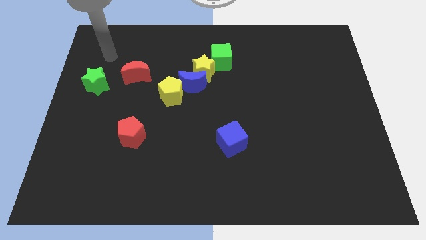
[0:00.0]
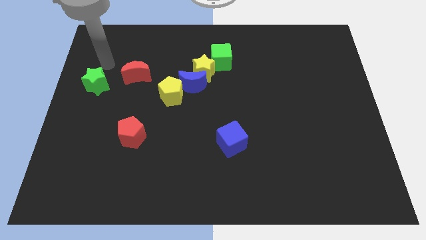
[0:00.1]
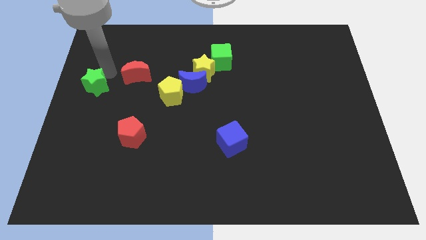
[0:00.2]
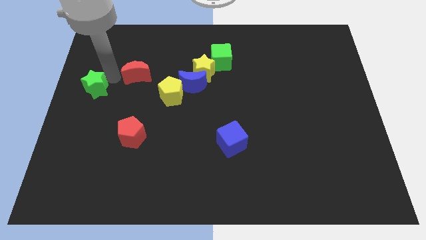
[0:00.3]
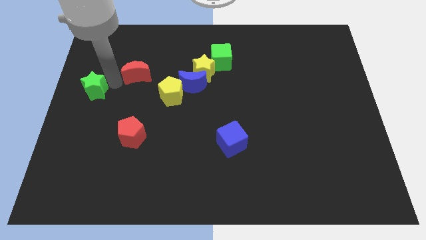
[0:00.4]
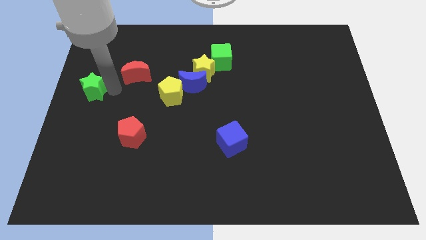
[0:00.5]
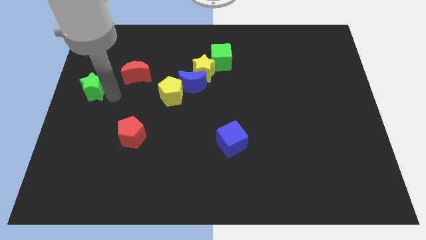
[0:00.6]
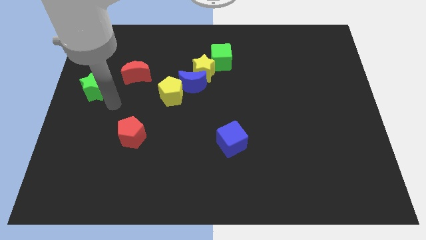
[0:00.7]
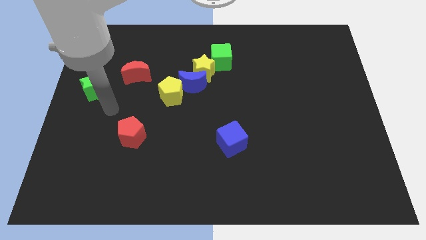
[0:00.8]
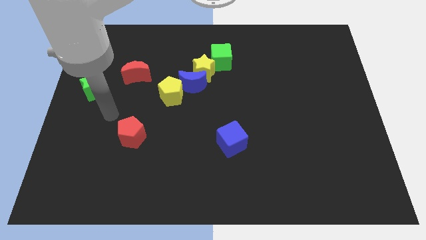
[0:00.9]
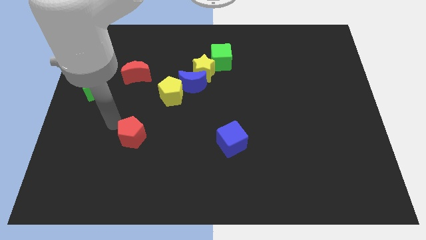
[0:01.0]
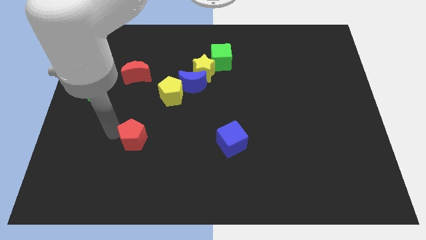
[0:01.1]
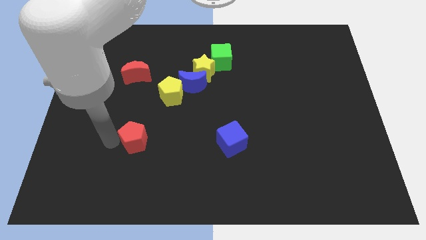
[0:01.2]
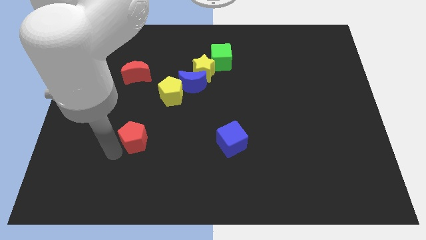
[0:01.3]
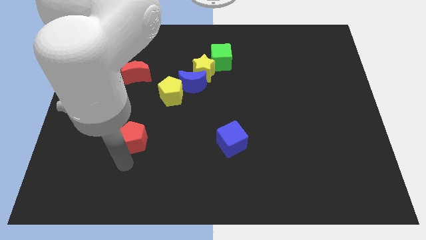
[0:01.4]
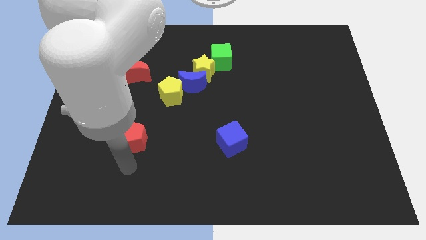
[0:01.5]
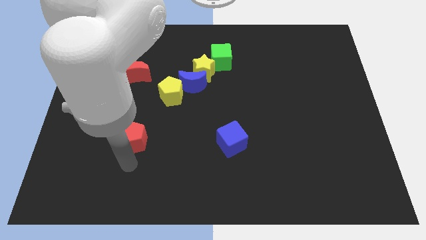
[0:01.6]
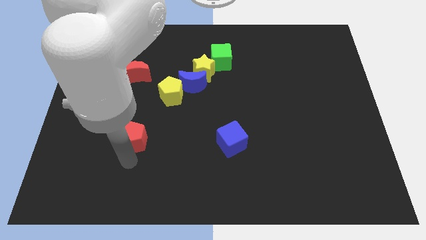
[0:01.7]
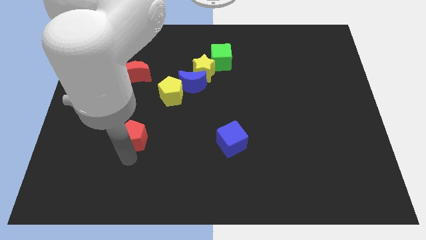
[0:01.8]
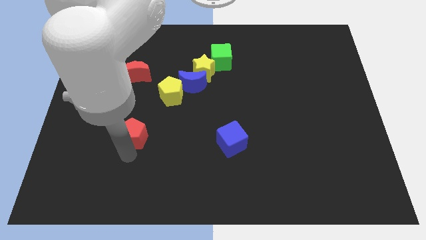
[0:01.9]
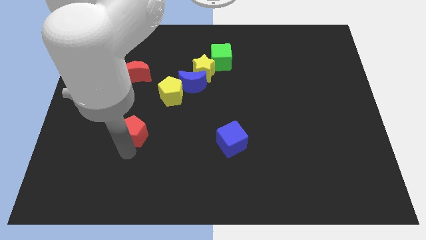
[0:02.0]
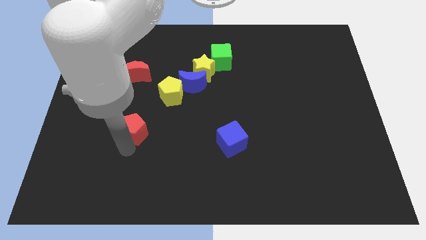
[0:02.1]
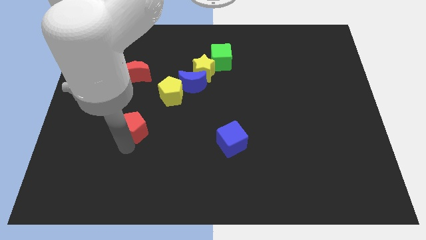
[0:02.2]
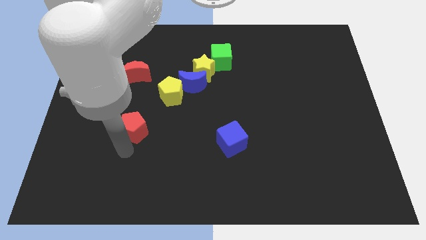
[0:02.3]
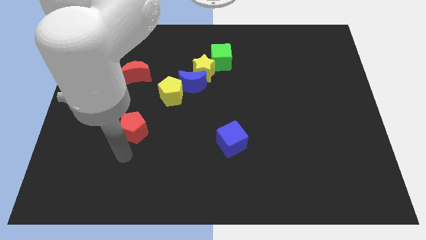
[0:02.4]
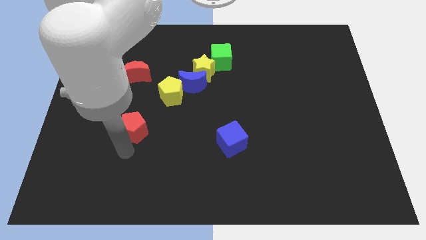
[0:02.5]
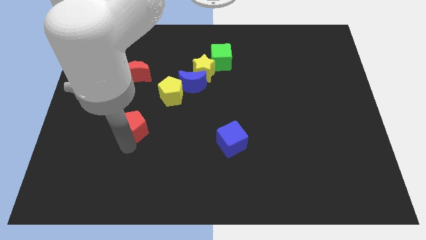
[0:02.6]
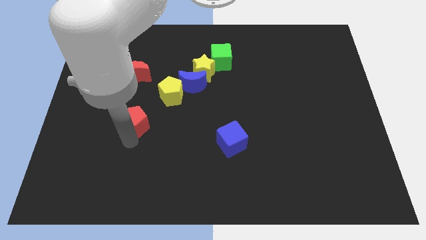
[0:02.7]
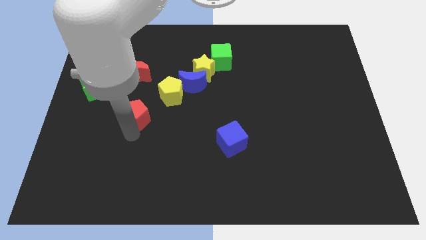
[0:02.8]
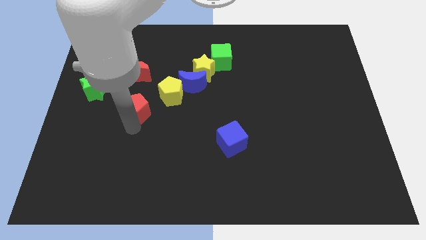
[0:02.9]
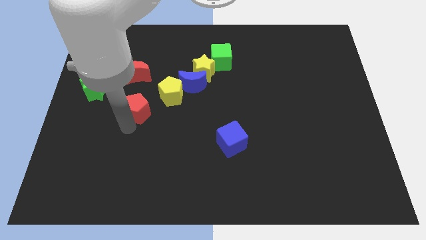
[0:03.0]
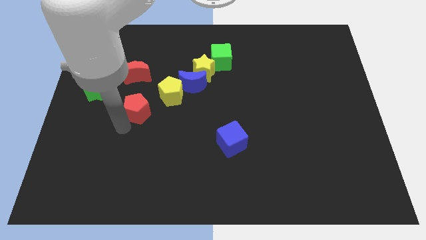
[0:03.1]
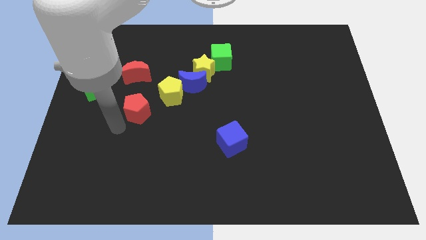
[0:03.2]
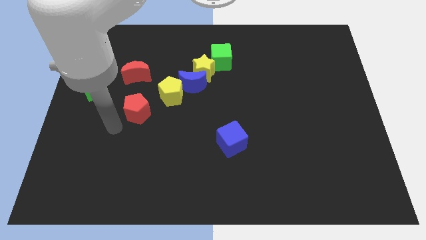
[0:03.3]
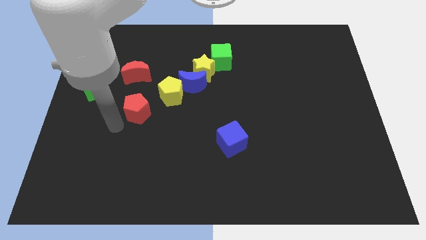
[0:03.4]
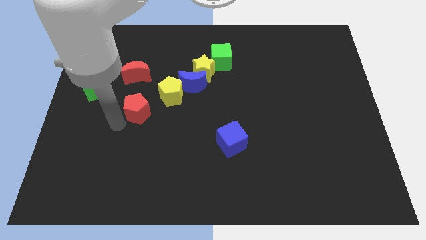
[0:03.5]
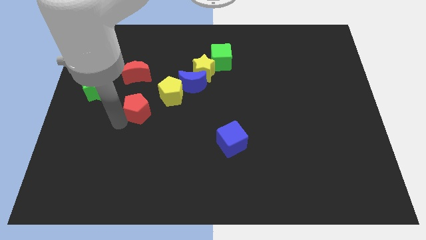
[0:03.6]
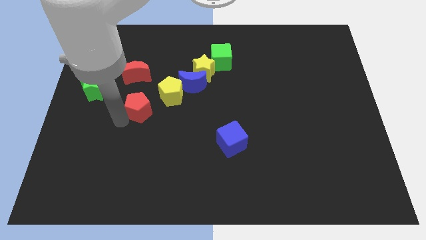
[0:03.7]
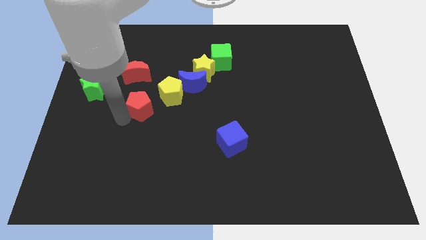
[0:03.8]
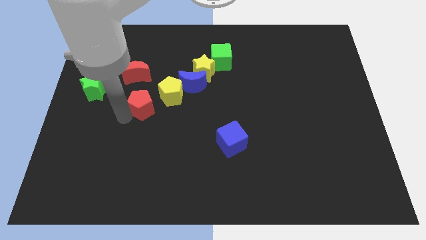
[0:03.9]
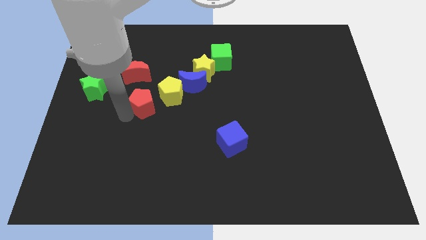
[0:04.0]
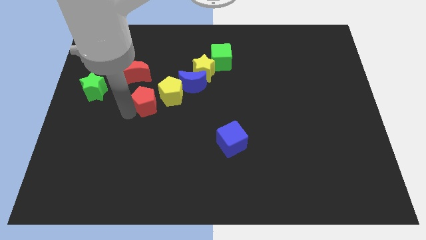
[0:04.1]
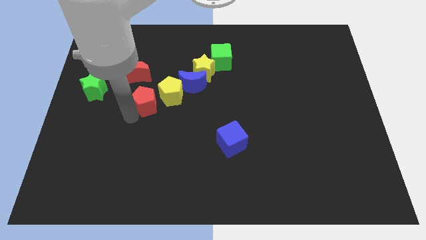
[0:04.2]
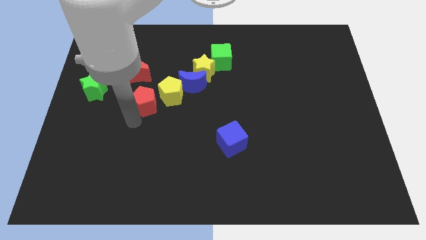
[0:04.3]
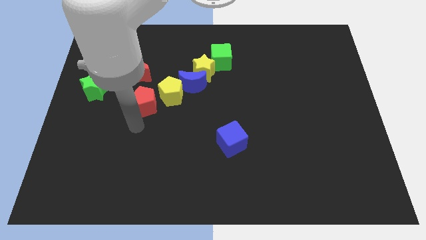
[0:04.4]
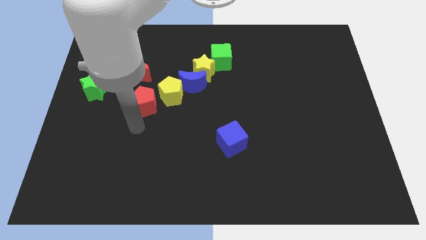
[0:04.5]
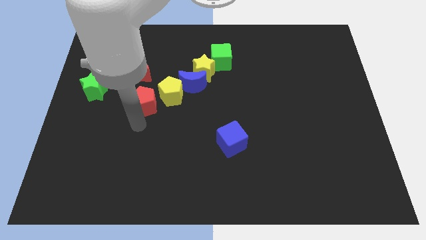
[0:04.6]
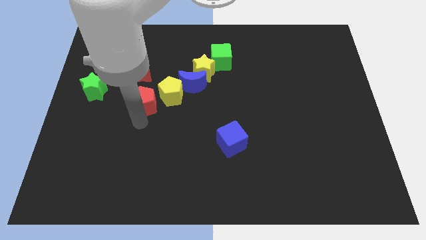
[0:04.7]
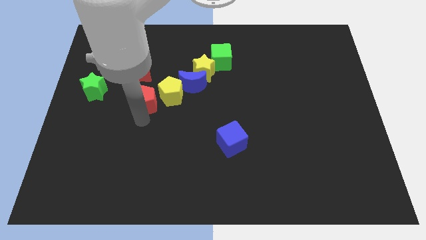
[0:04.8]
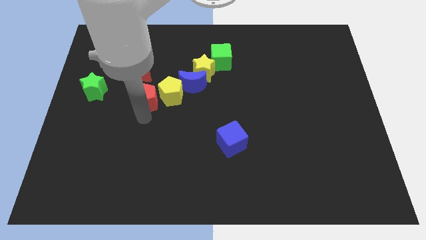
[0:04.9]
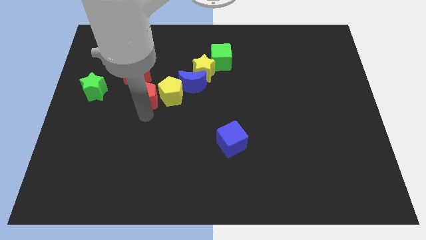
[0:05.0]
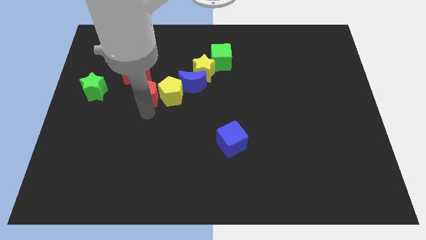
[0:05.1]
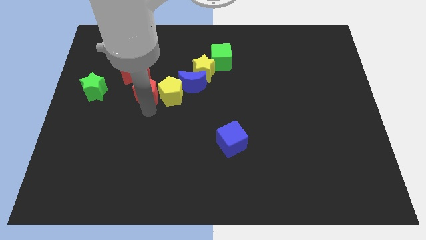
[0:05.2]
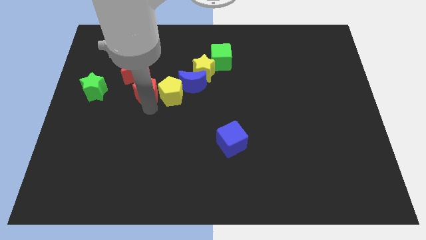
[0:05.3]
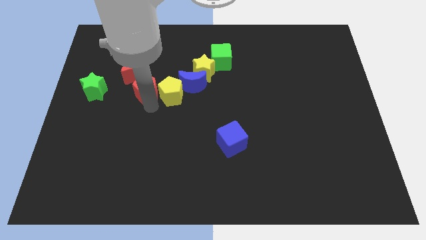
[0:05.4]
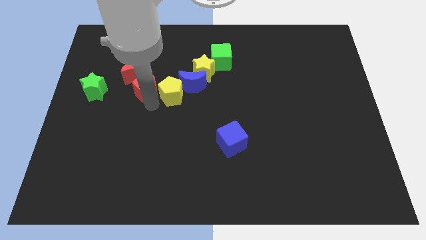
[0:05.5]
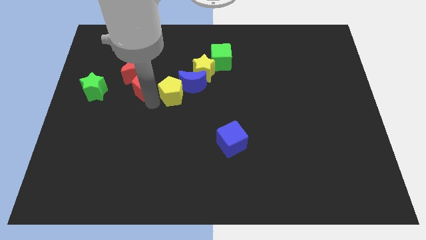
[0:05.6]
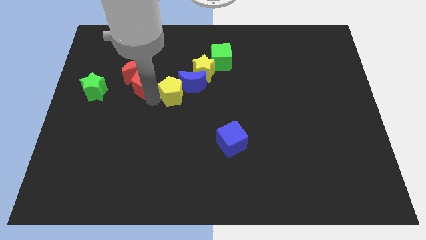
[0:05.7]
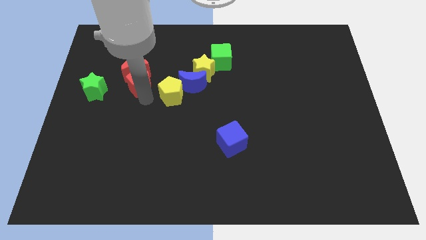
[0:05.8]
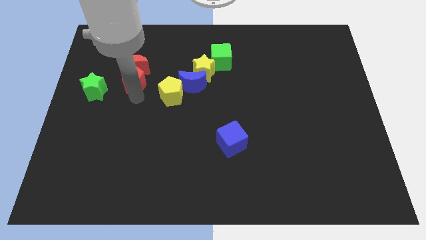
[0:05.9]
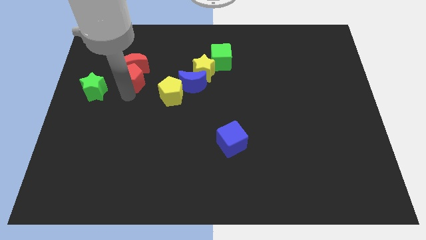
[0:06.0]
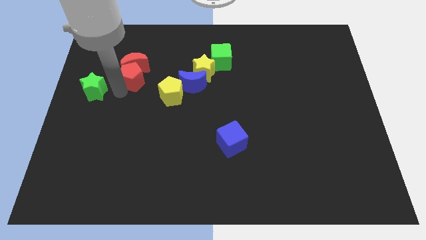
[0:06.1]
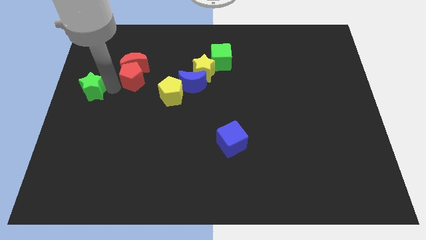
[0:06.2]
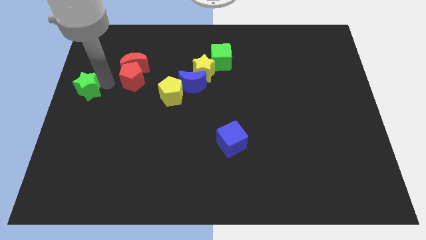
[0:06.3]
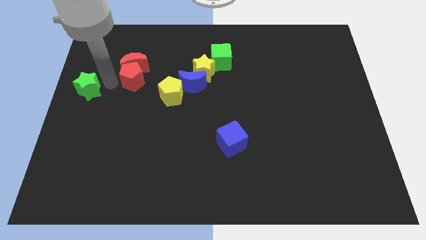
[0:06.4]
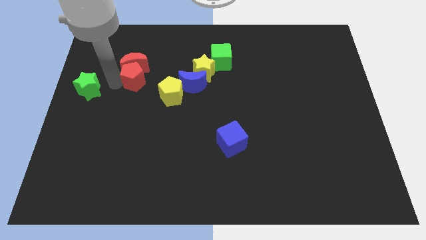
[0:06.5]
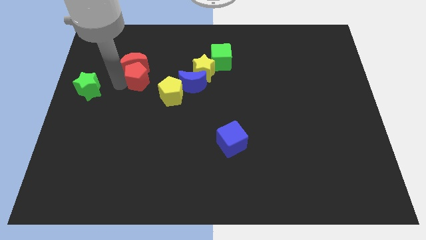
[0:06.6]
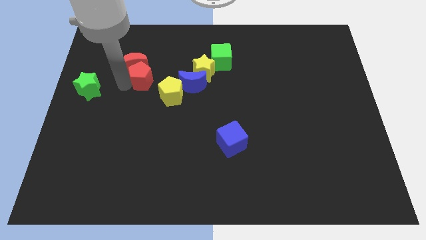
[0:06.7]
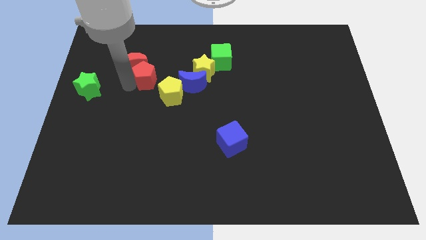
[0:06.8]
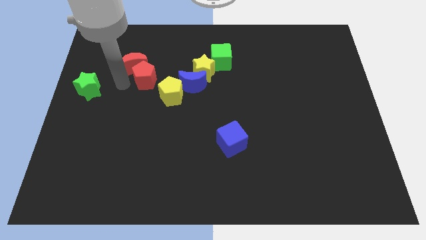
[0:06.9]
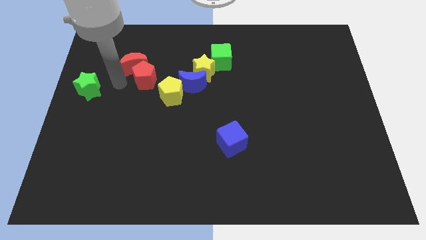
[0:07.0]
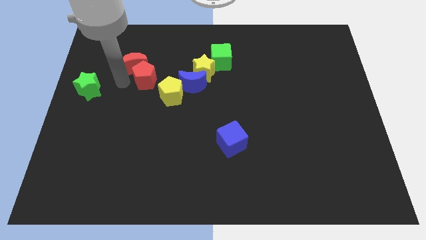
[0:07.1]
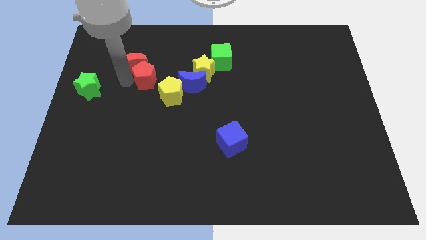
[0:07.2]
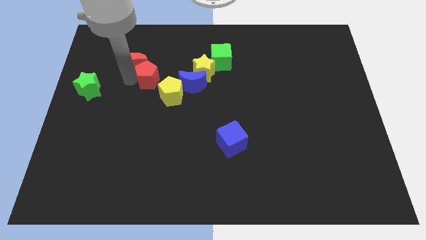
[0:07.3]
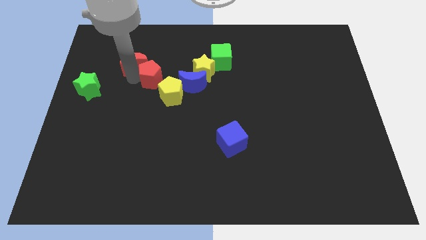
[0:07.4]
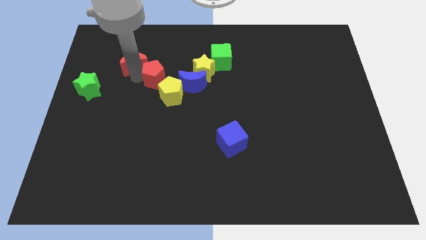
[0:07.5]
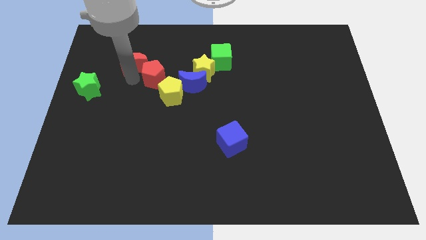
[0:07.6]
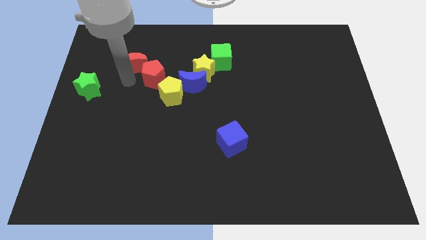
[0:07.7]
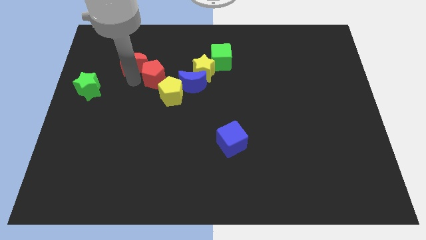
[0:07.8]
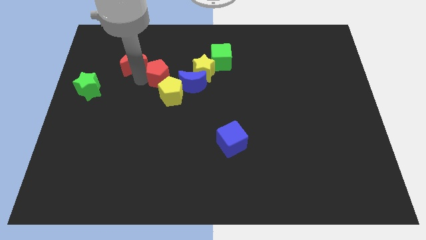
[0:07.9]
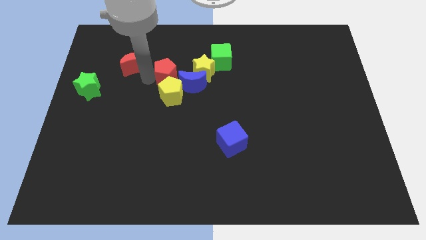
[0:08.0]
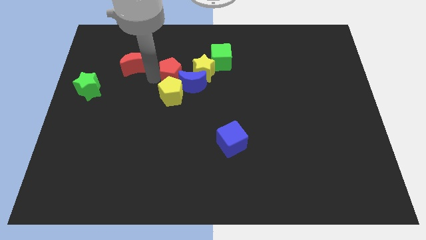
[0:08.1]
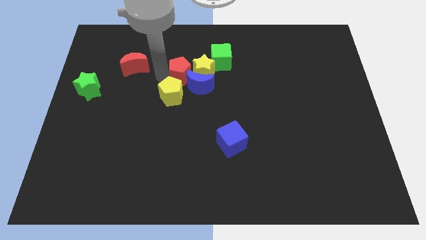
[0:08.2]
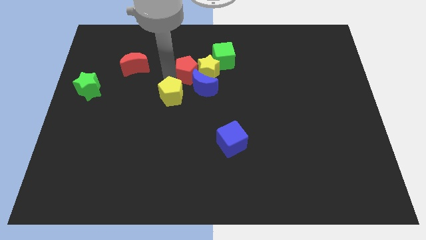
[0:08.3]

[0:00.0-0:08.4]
push the red pentagon next to the yellow star
